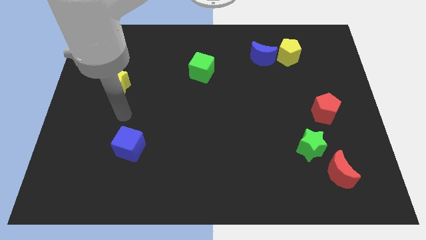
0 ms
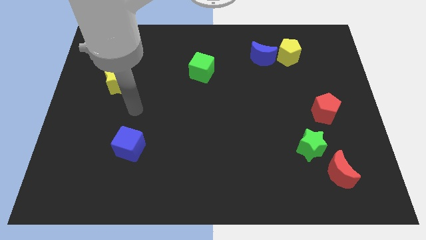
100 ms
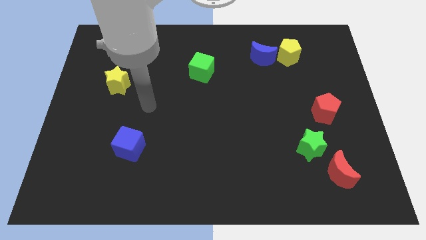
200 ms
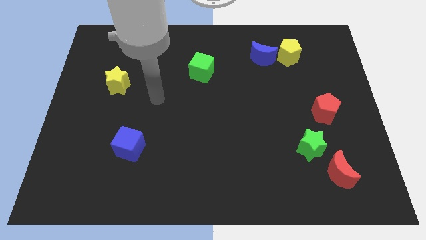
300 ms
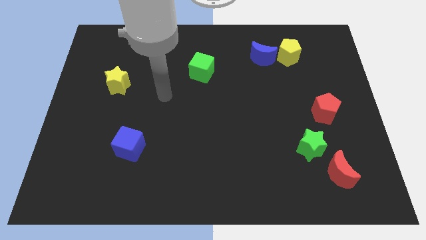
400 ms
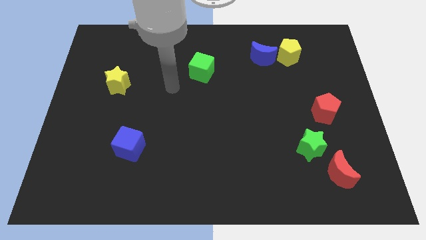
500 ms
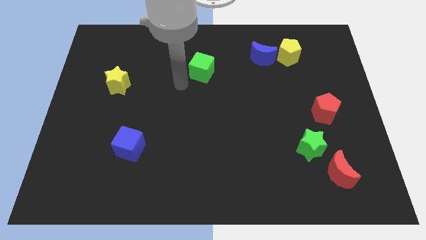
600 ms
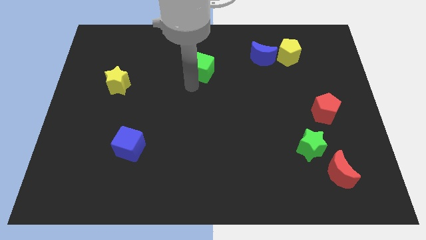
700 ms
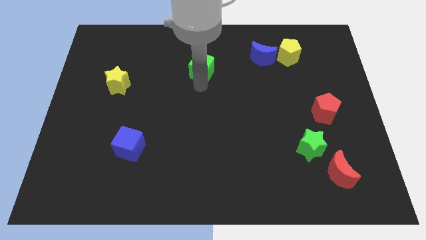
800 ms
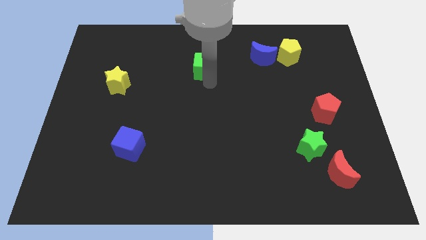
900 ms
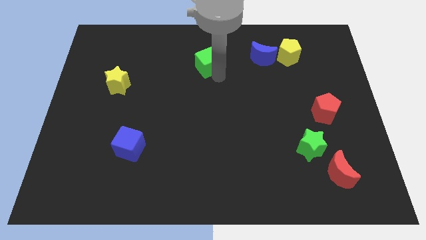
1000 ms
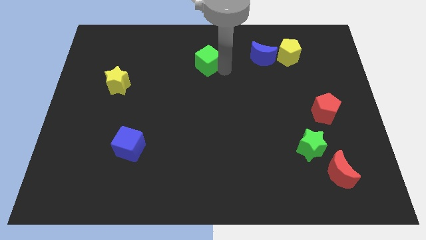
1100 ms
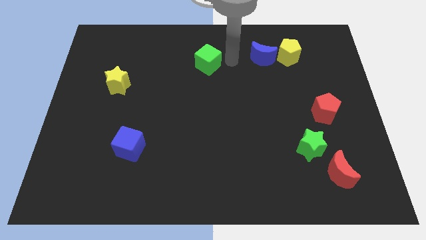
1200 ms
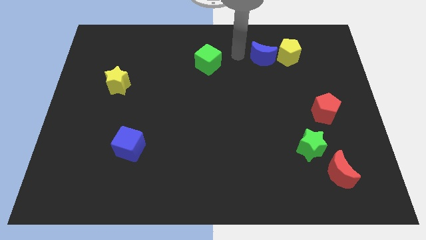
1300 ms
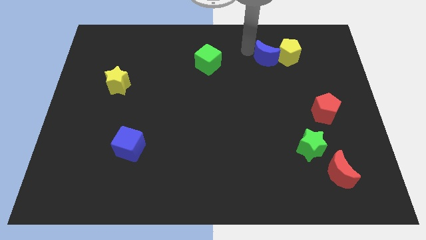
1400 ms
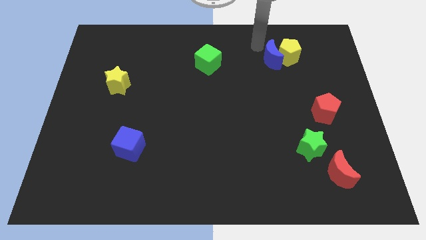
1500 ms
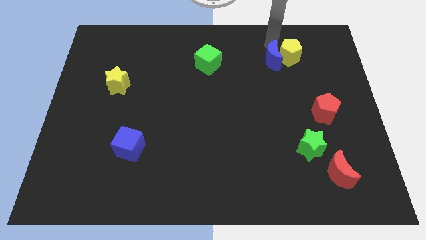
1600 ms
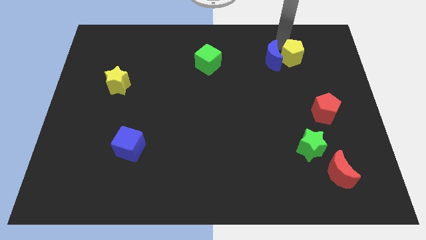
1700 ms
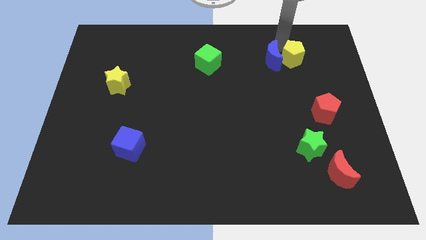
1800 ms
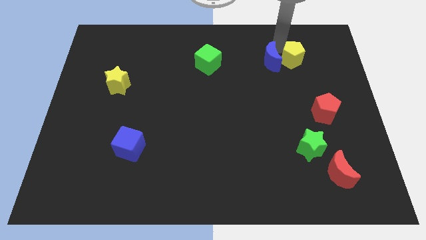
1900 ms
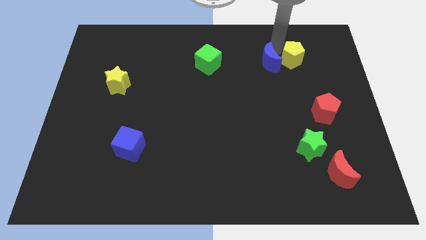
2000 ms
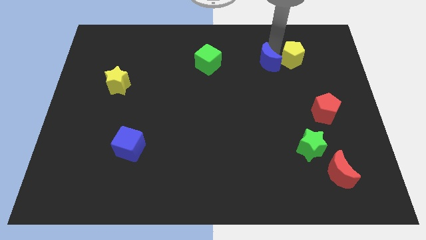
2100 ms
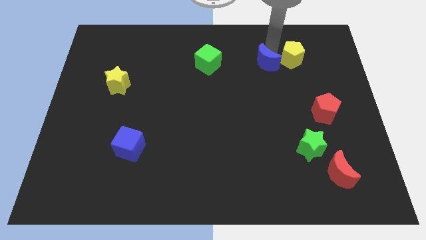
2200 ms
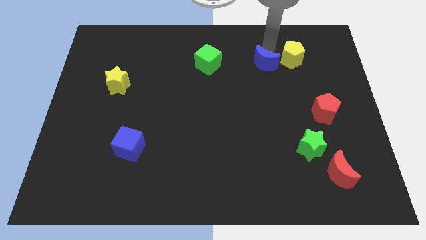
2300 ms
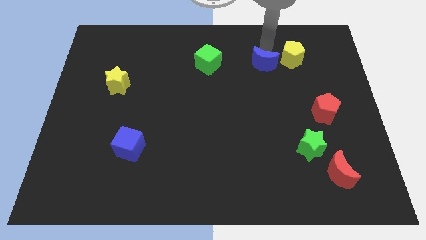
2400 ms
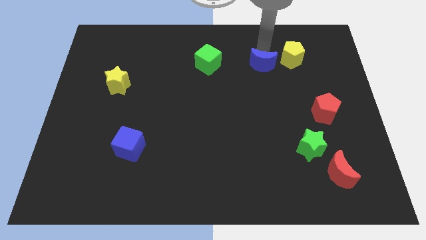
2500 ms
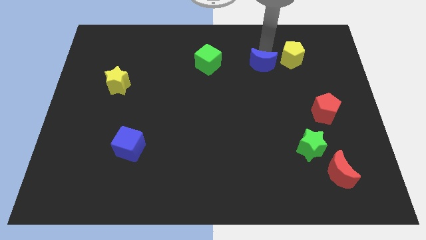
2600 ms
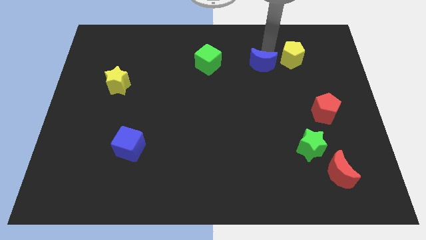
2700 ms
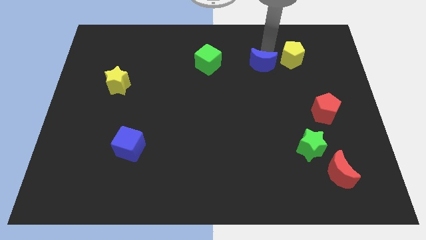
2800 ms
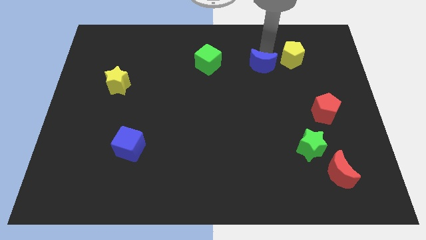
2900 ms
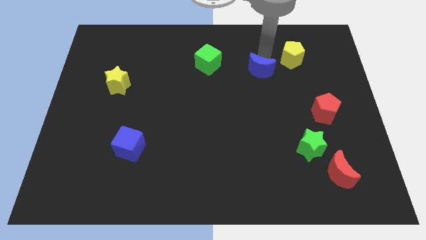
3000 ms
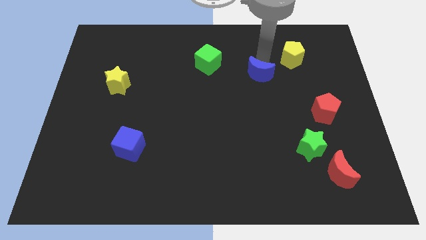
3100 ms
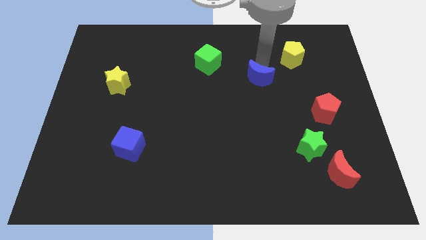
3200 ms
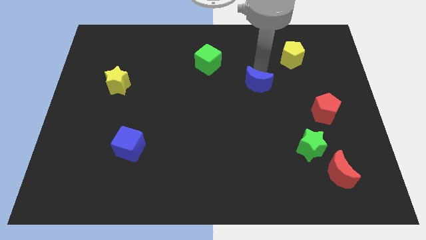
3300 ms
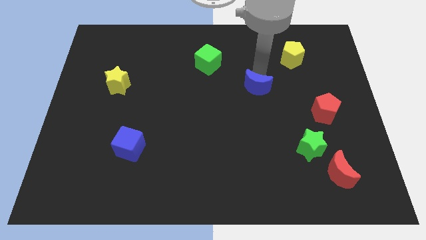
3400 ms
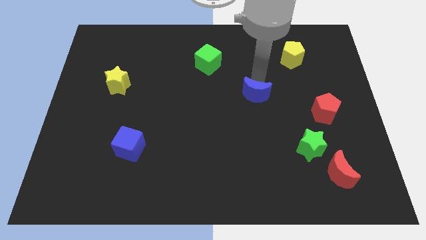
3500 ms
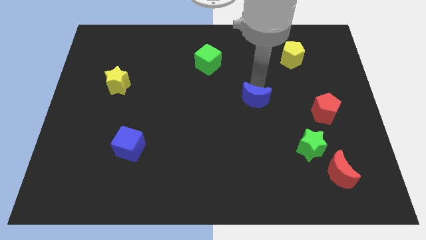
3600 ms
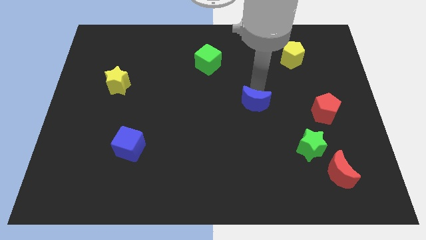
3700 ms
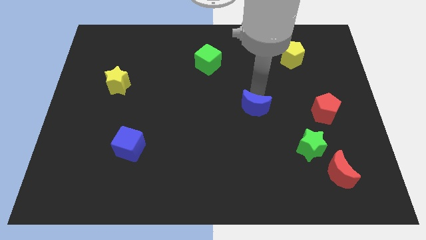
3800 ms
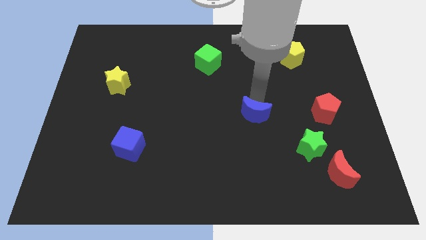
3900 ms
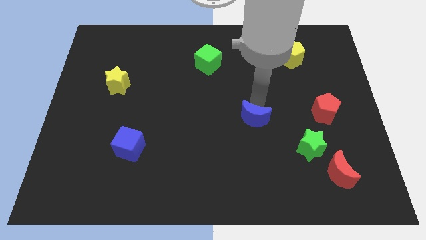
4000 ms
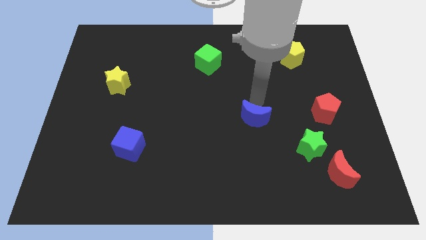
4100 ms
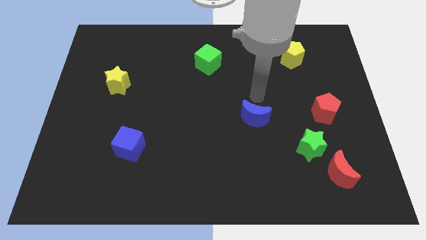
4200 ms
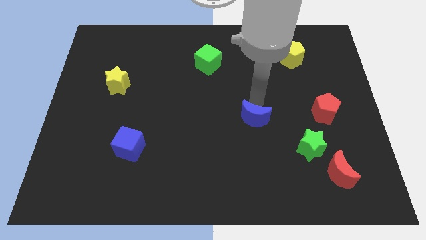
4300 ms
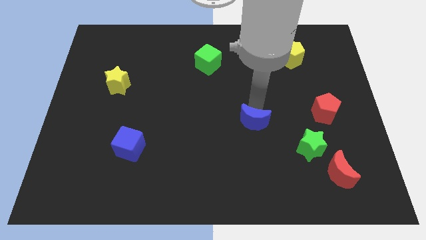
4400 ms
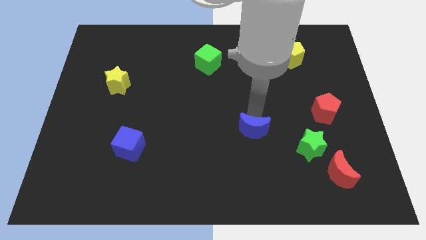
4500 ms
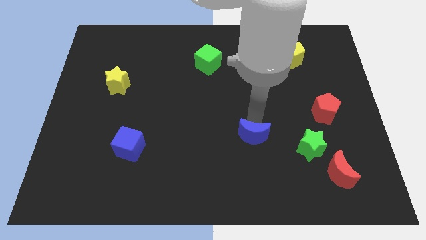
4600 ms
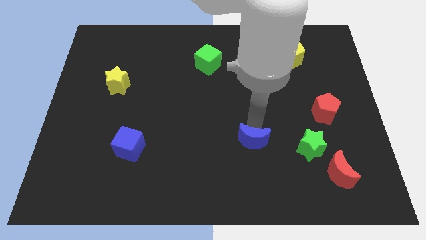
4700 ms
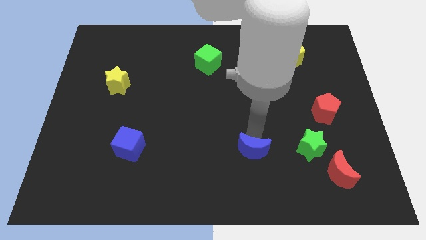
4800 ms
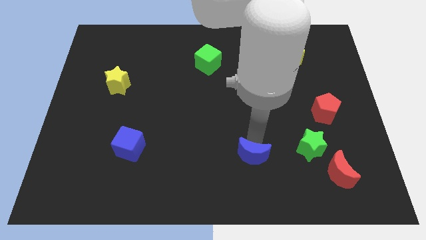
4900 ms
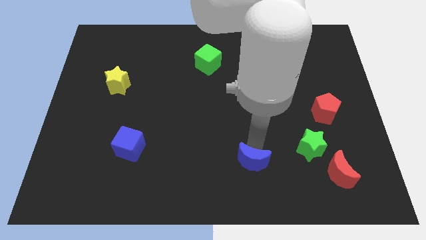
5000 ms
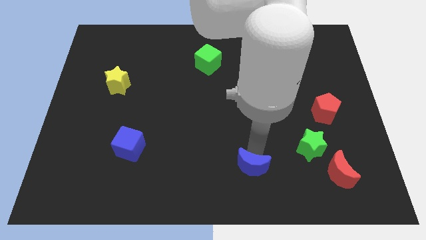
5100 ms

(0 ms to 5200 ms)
slide the blue moon to the bottom side

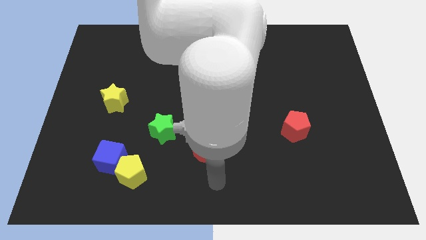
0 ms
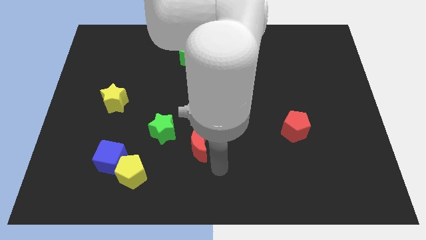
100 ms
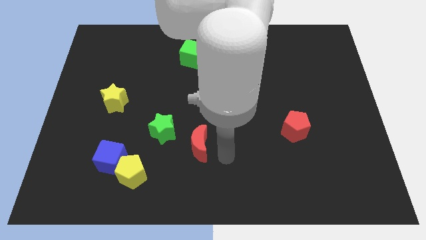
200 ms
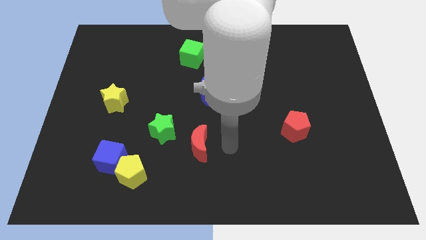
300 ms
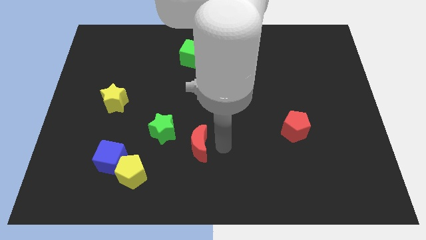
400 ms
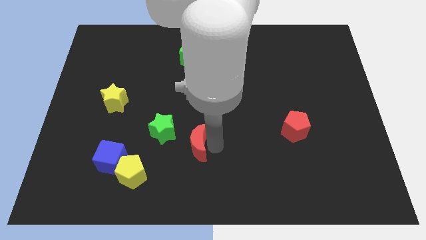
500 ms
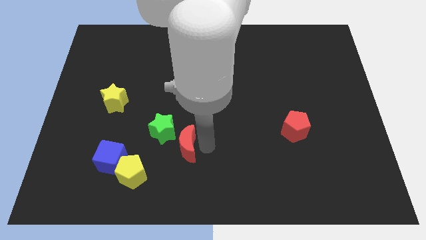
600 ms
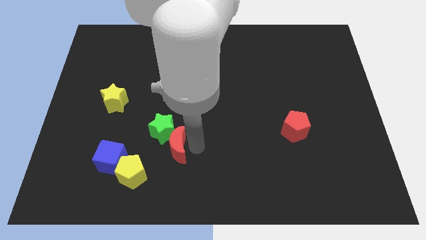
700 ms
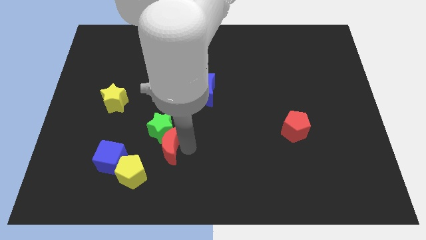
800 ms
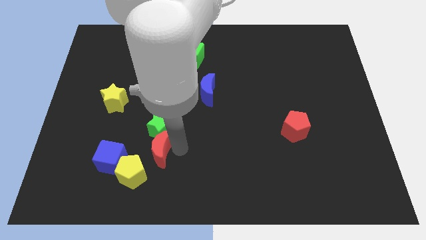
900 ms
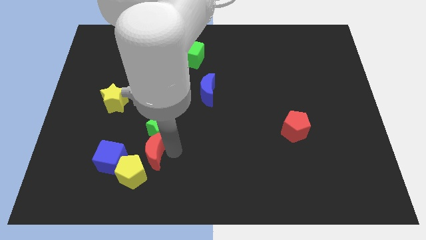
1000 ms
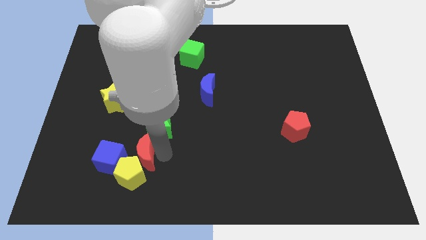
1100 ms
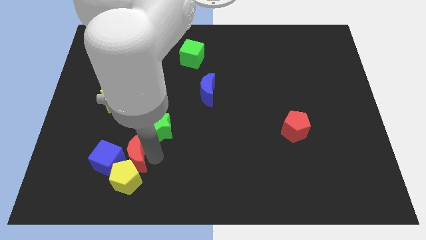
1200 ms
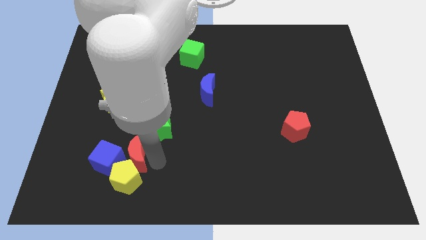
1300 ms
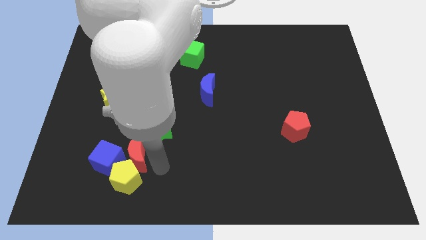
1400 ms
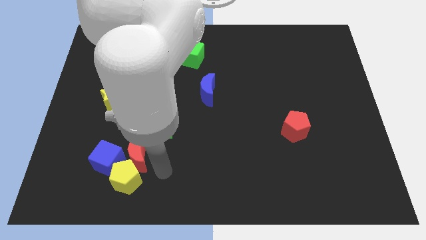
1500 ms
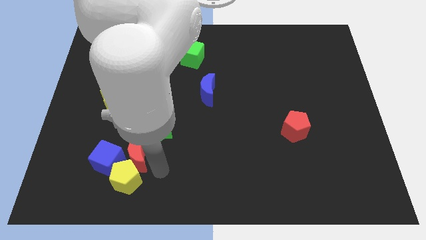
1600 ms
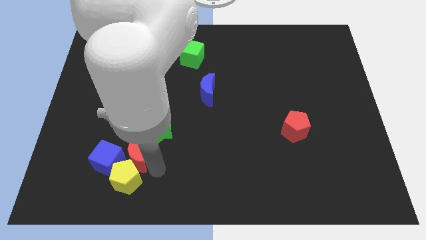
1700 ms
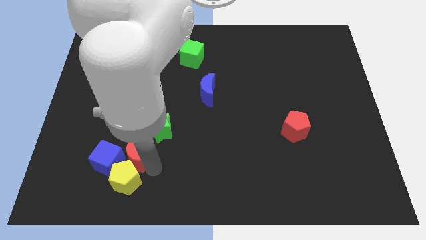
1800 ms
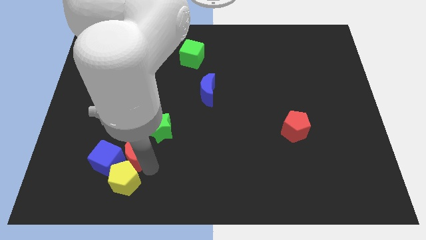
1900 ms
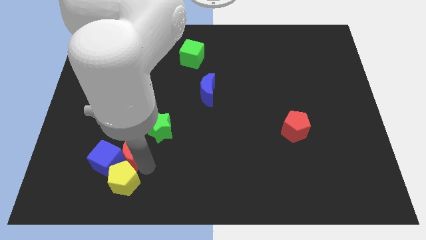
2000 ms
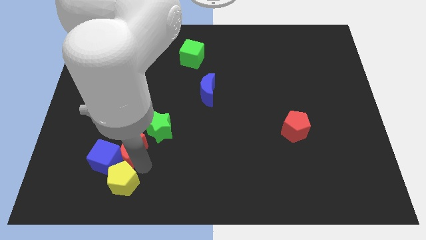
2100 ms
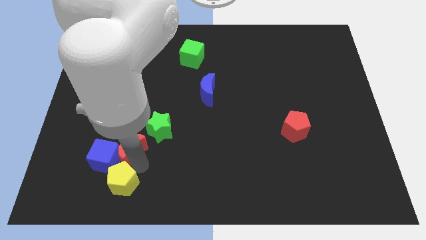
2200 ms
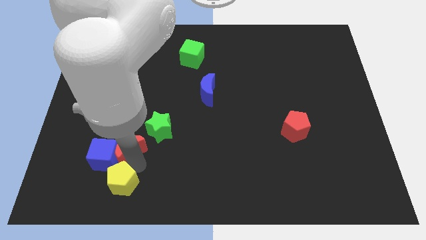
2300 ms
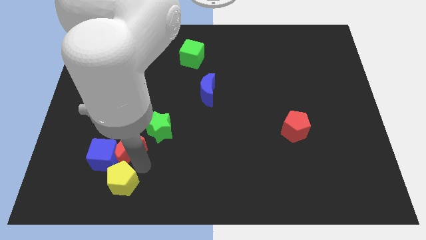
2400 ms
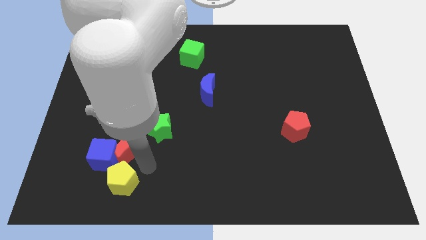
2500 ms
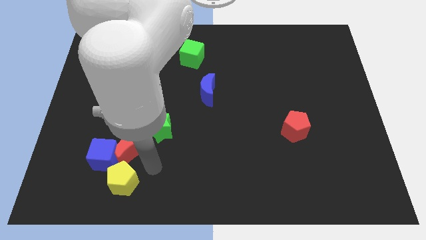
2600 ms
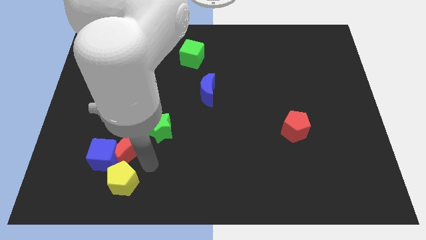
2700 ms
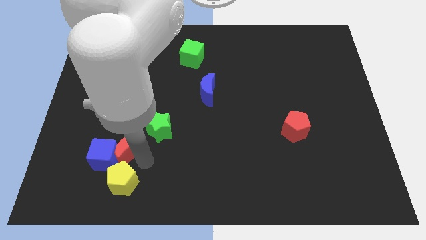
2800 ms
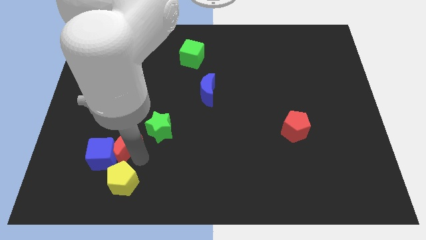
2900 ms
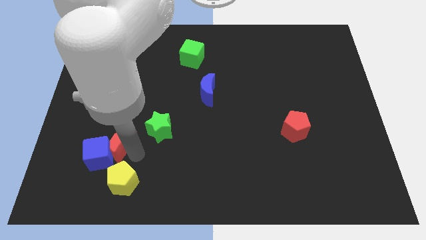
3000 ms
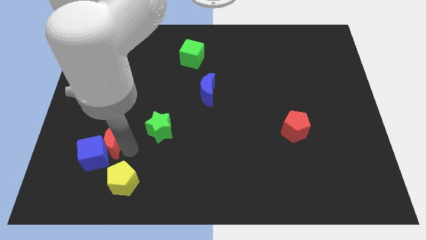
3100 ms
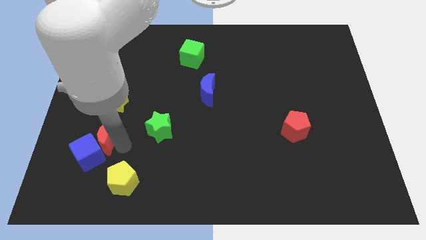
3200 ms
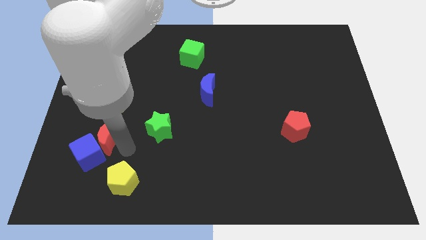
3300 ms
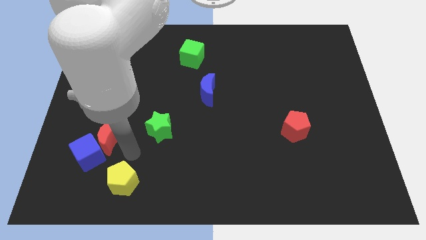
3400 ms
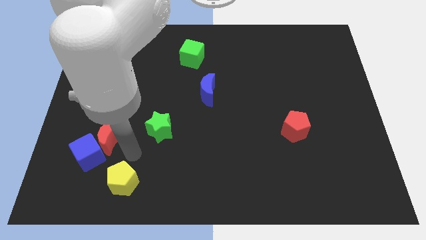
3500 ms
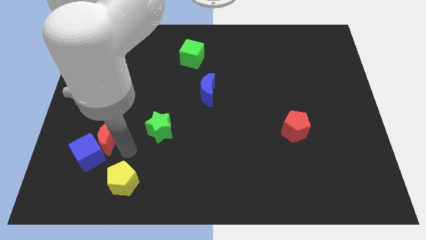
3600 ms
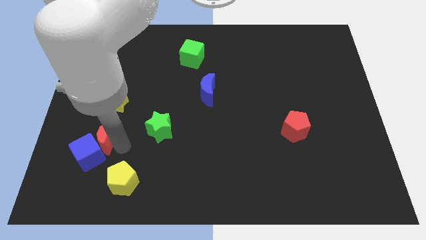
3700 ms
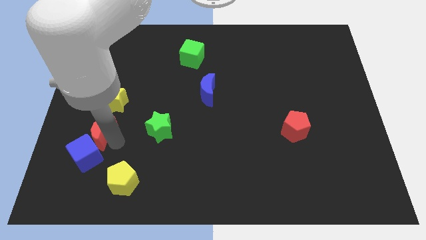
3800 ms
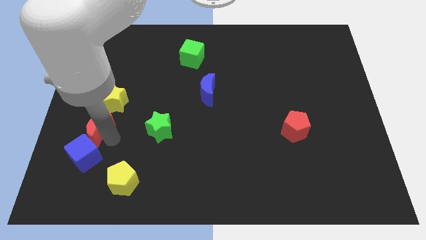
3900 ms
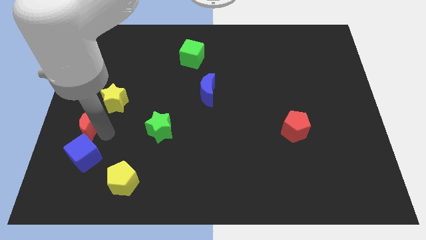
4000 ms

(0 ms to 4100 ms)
slide the red moon to the left side
